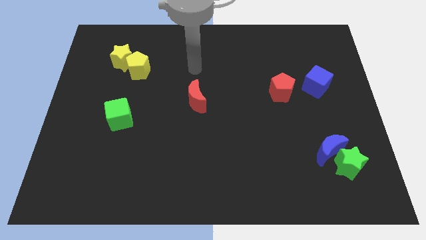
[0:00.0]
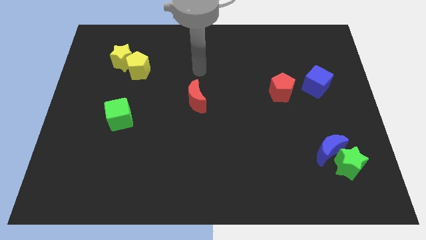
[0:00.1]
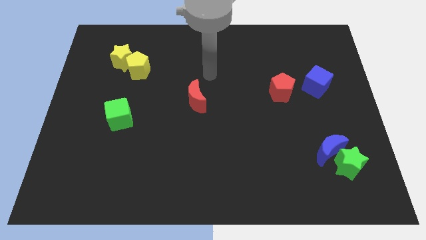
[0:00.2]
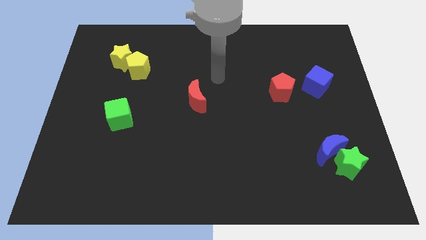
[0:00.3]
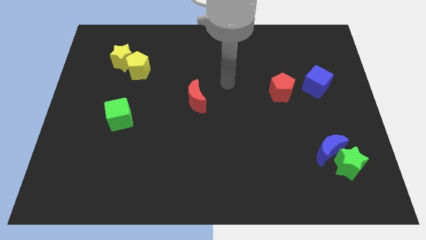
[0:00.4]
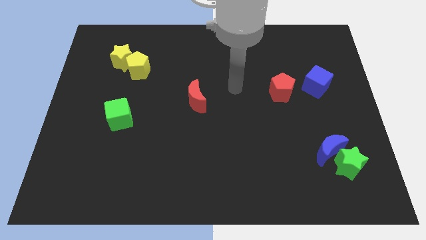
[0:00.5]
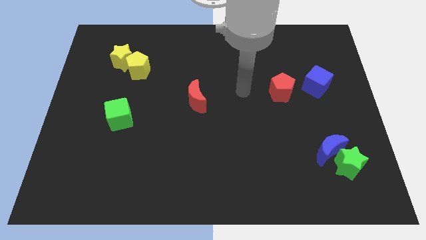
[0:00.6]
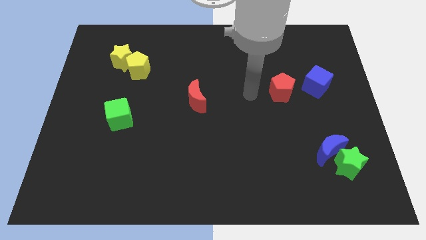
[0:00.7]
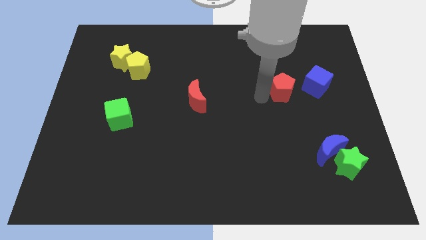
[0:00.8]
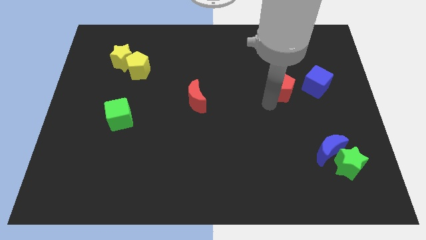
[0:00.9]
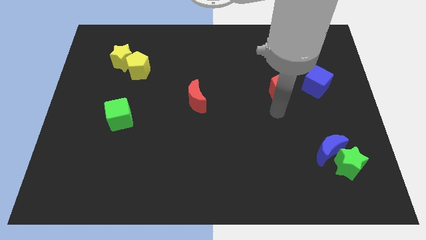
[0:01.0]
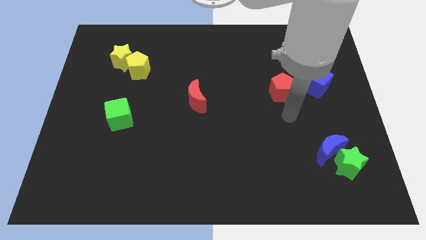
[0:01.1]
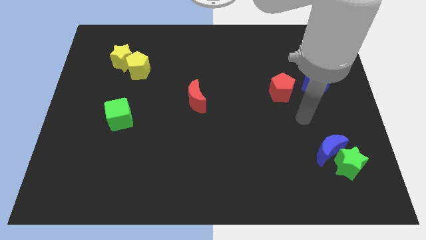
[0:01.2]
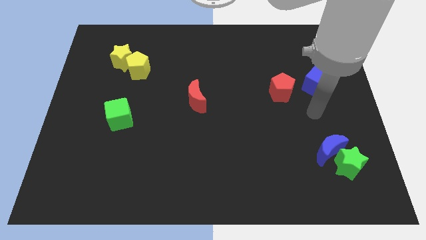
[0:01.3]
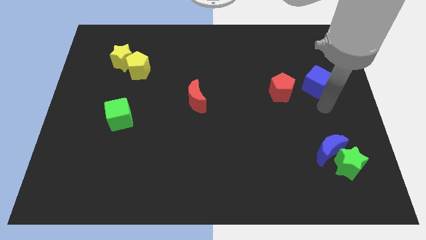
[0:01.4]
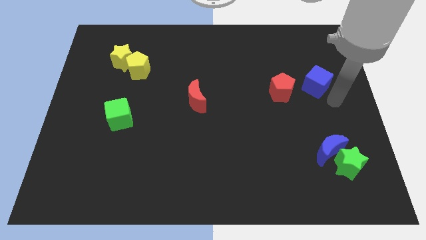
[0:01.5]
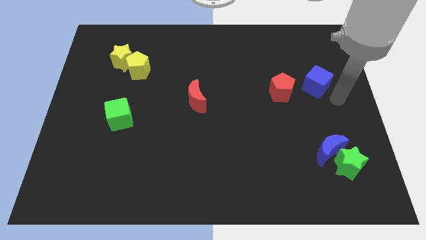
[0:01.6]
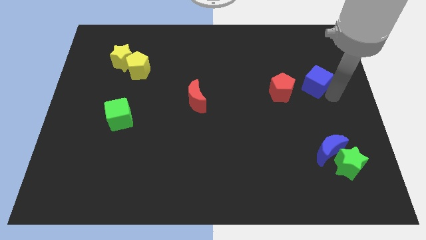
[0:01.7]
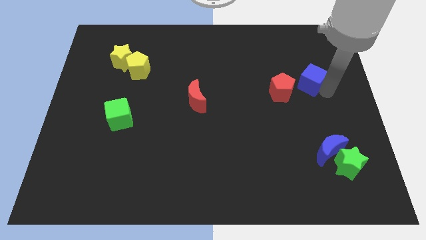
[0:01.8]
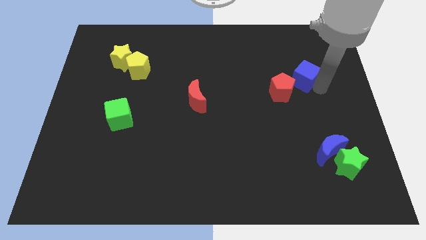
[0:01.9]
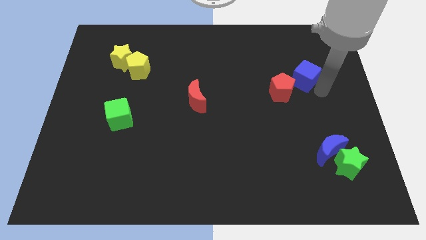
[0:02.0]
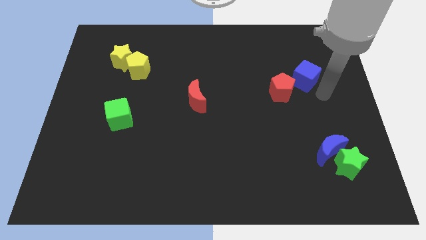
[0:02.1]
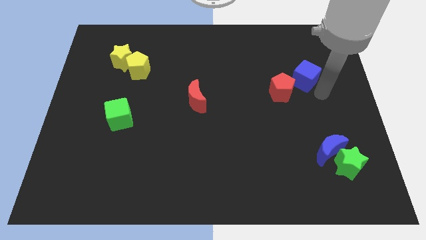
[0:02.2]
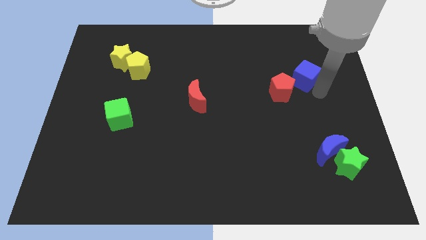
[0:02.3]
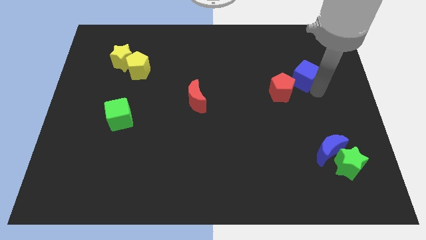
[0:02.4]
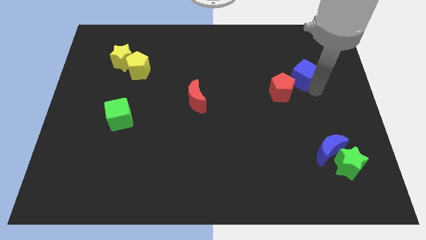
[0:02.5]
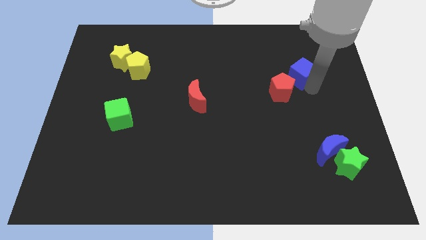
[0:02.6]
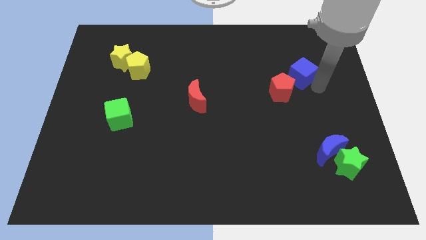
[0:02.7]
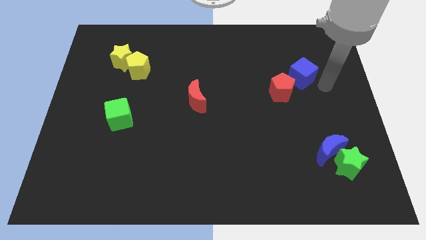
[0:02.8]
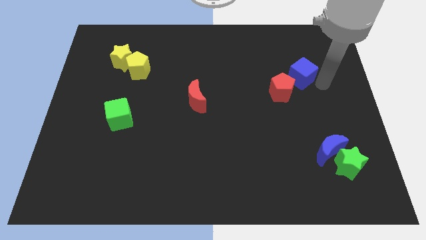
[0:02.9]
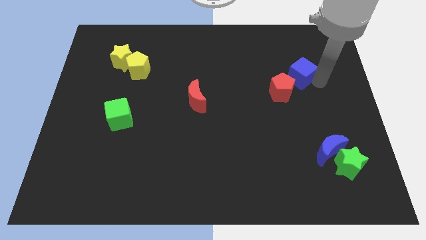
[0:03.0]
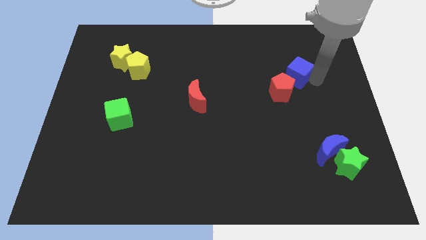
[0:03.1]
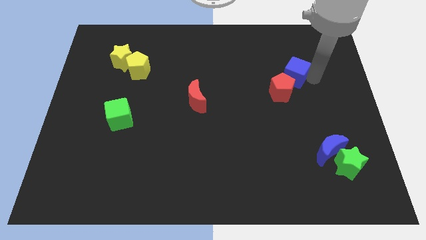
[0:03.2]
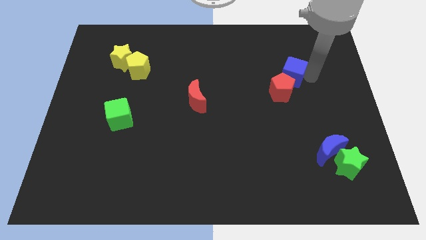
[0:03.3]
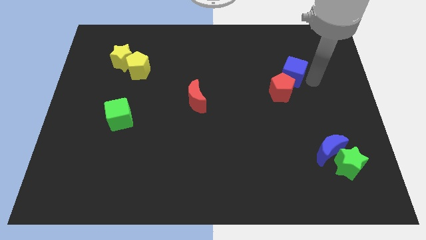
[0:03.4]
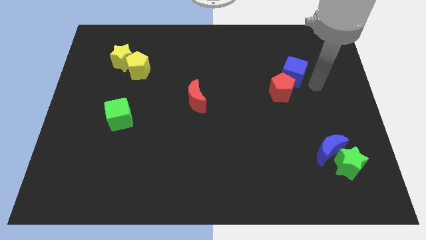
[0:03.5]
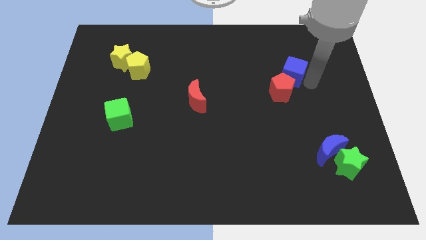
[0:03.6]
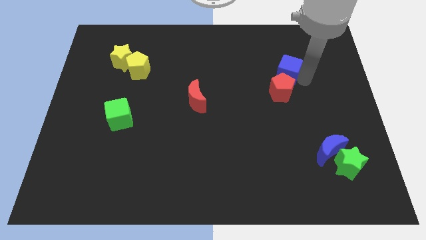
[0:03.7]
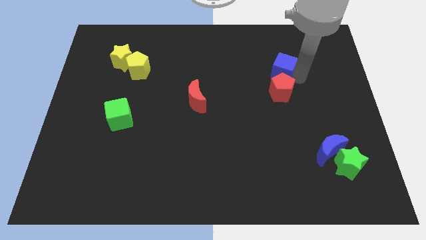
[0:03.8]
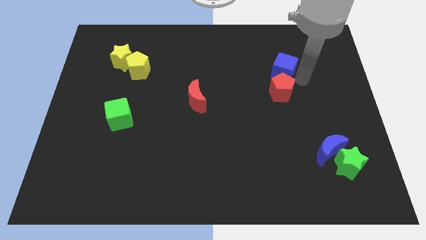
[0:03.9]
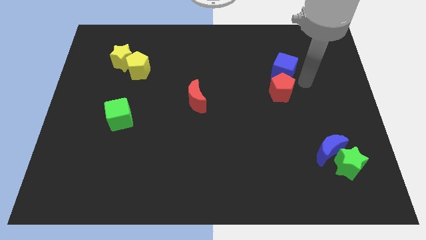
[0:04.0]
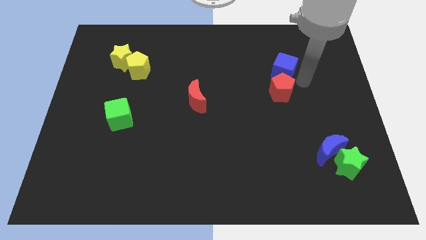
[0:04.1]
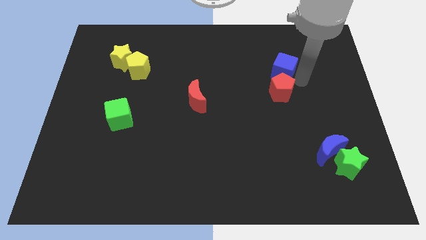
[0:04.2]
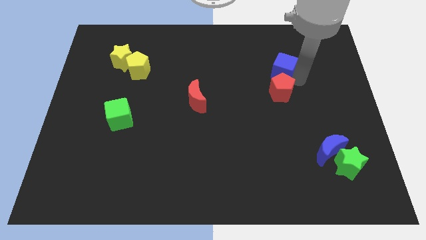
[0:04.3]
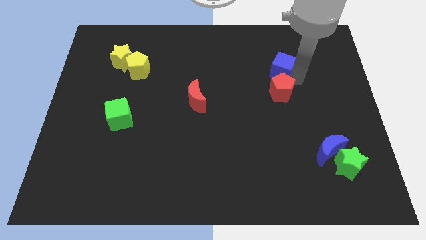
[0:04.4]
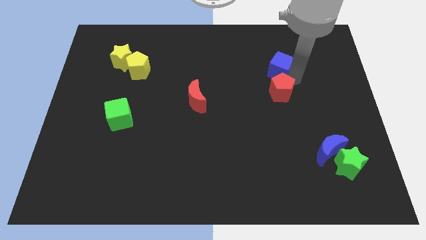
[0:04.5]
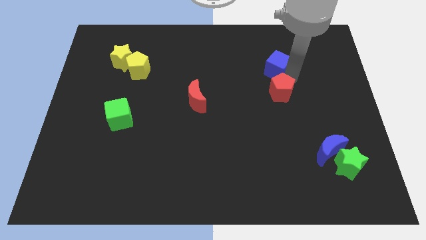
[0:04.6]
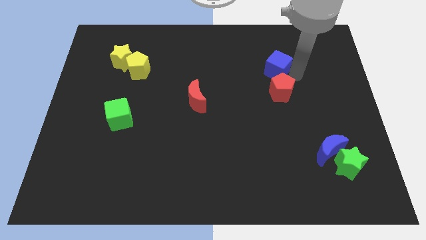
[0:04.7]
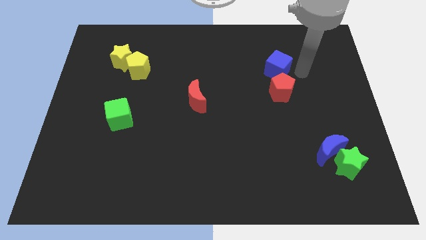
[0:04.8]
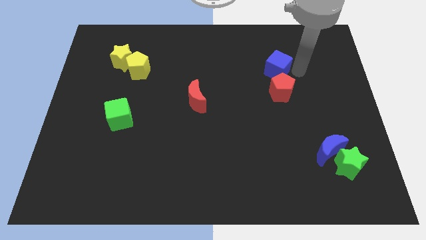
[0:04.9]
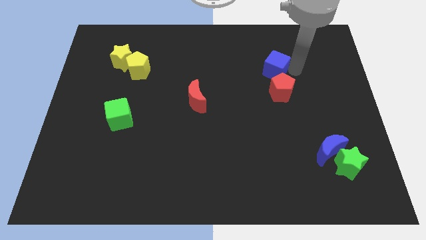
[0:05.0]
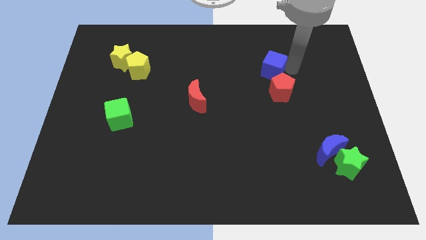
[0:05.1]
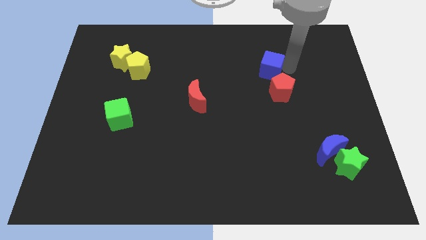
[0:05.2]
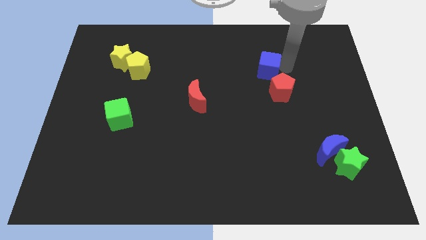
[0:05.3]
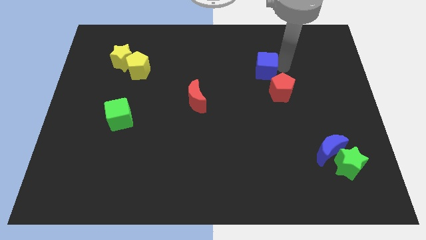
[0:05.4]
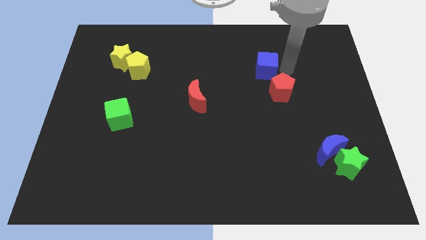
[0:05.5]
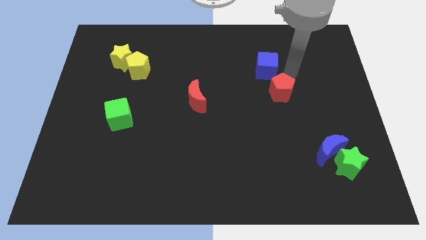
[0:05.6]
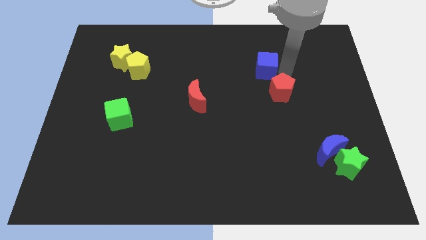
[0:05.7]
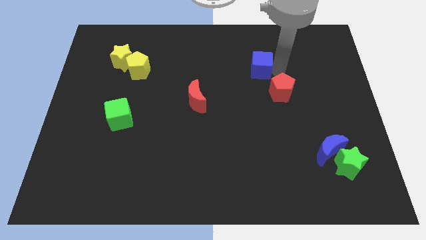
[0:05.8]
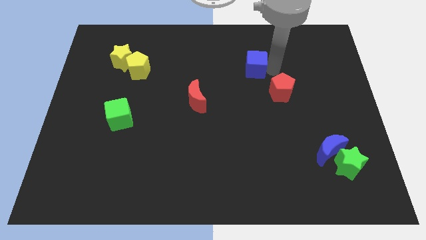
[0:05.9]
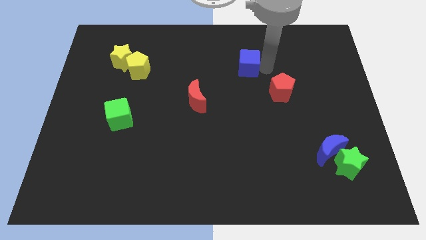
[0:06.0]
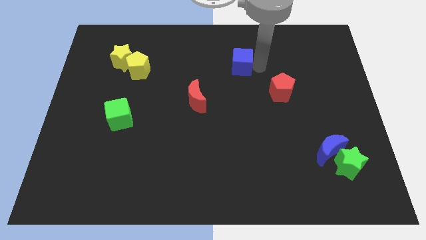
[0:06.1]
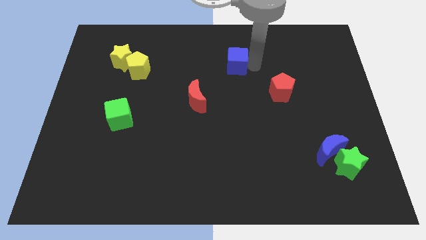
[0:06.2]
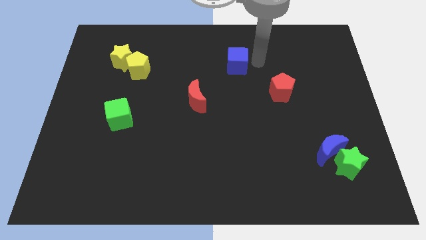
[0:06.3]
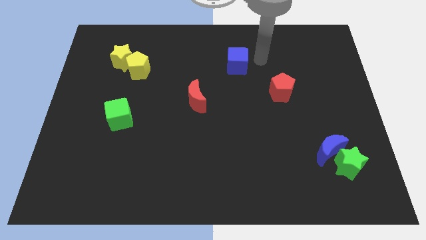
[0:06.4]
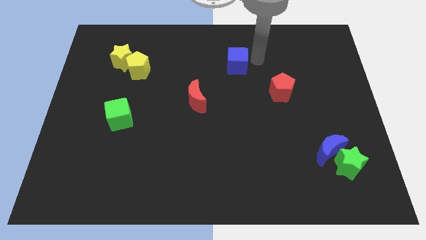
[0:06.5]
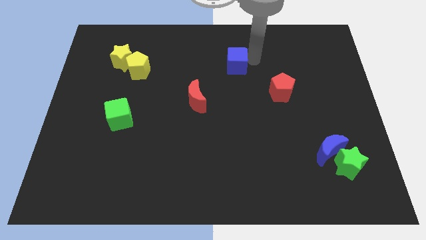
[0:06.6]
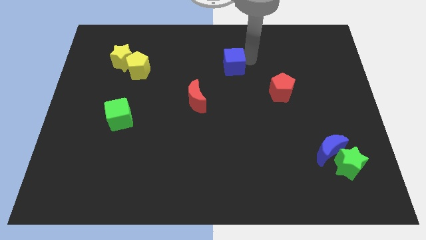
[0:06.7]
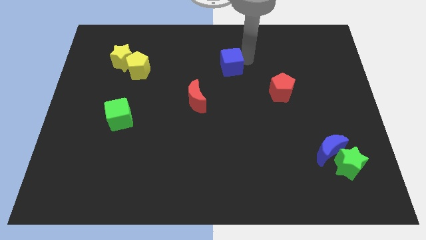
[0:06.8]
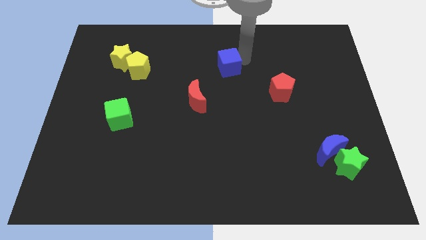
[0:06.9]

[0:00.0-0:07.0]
move the blue cube left

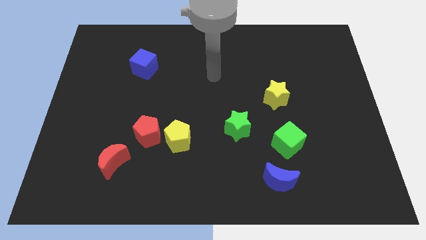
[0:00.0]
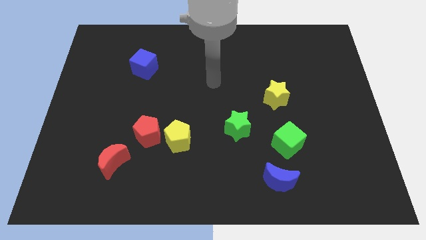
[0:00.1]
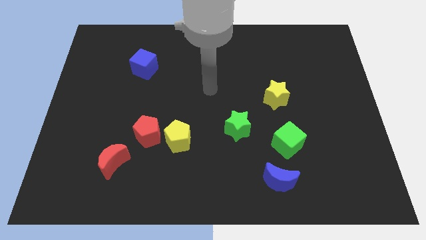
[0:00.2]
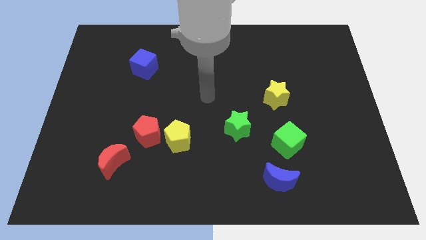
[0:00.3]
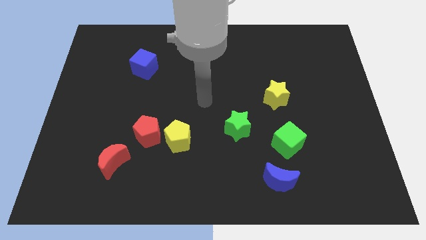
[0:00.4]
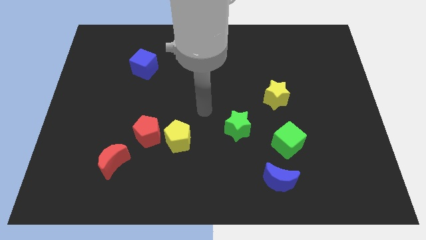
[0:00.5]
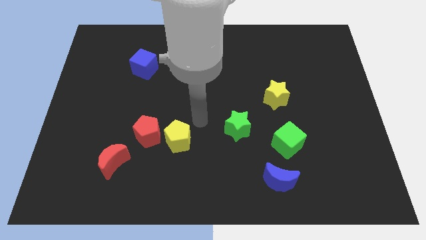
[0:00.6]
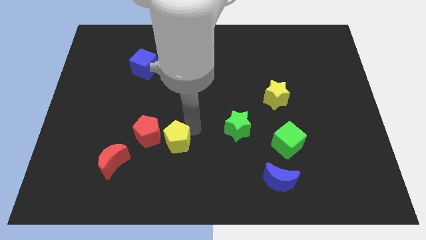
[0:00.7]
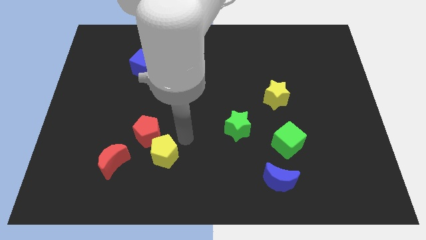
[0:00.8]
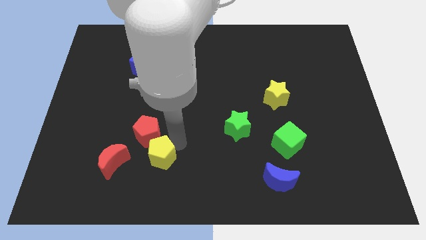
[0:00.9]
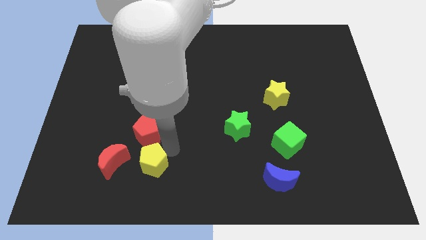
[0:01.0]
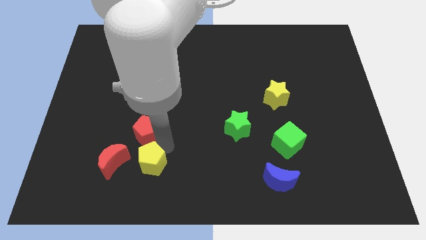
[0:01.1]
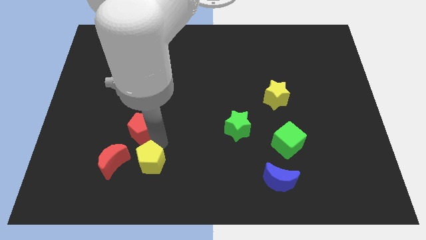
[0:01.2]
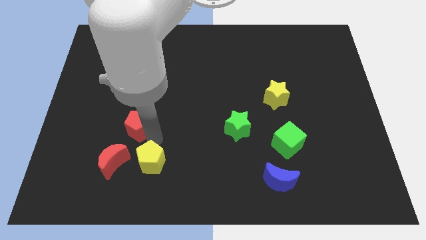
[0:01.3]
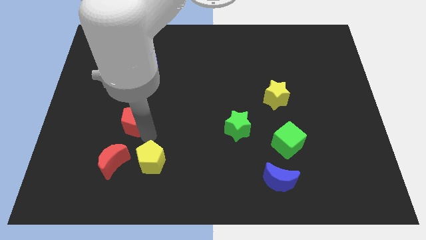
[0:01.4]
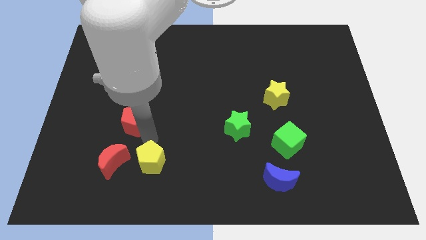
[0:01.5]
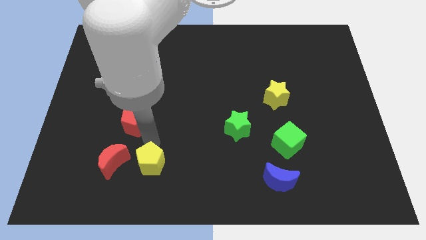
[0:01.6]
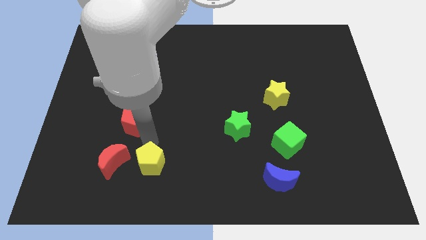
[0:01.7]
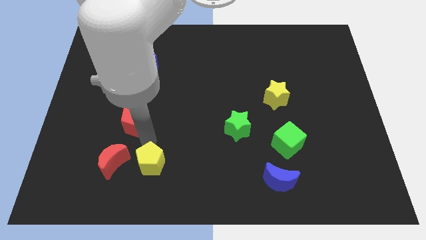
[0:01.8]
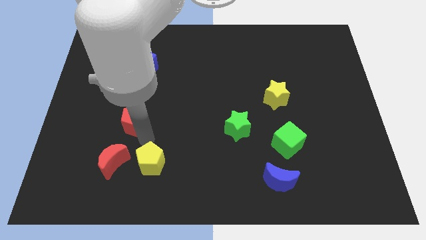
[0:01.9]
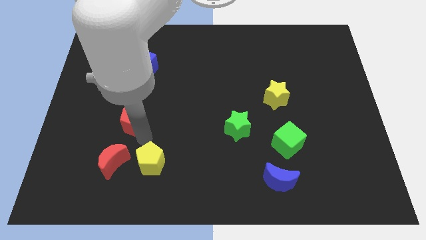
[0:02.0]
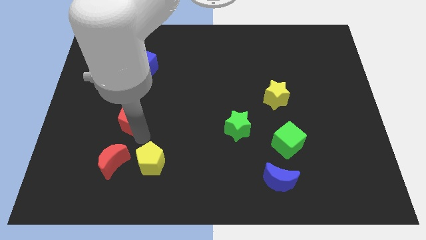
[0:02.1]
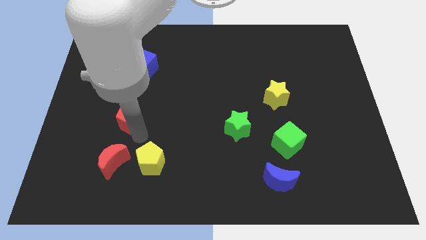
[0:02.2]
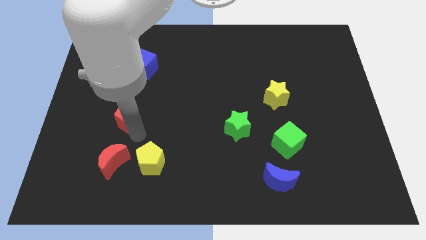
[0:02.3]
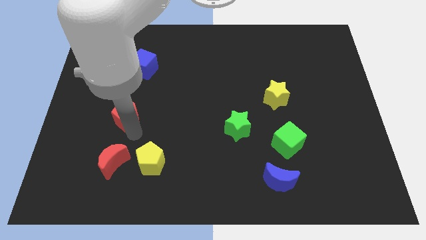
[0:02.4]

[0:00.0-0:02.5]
slightly push the red pentagon upwards and to the left diagonally
